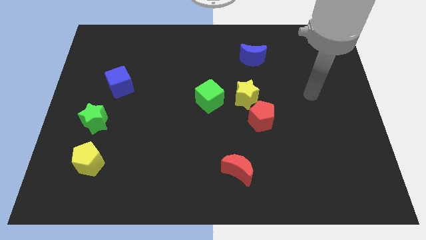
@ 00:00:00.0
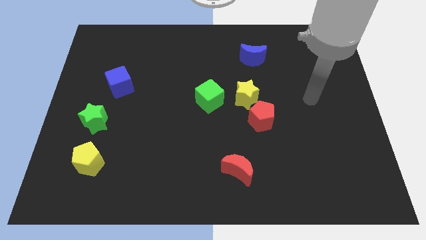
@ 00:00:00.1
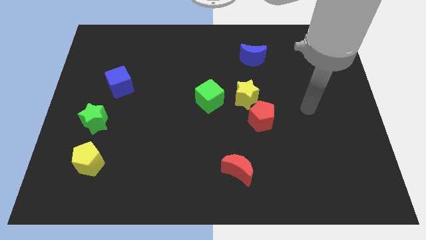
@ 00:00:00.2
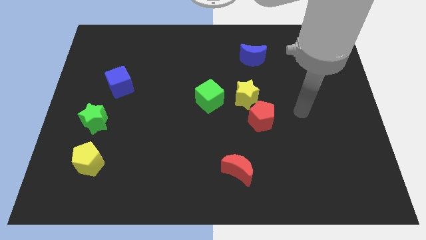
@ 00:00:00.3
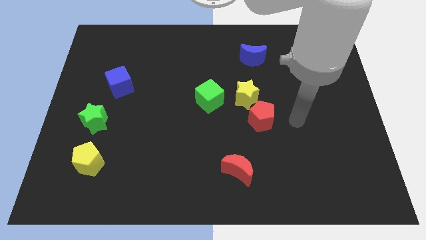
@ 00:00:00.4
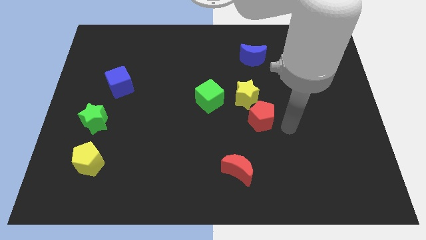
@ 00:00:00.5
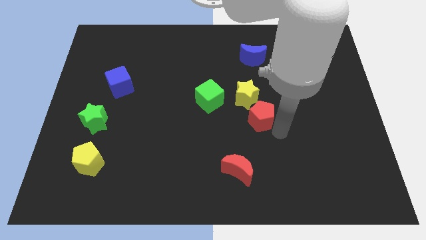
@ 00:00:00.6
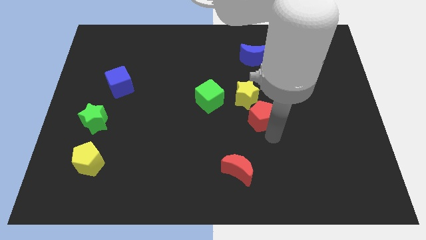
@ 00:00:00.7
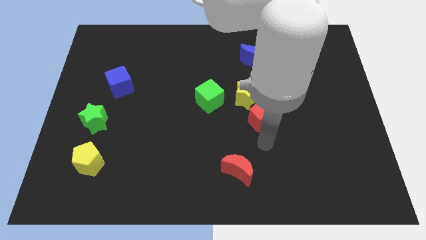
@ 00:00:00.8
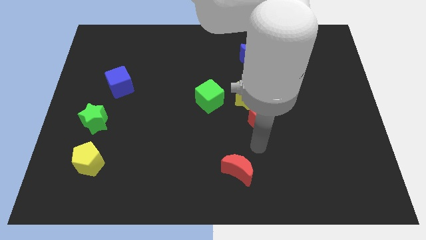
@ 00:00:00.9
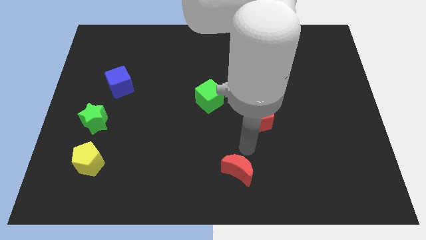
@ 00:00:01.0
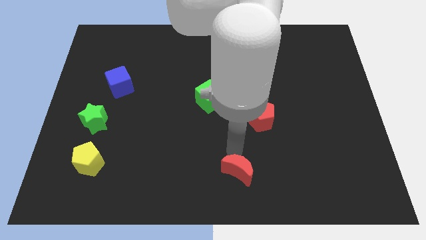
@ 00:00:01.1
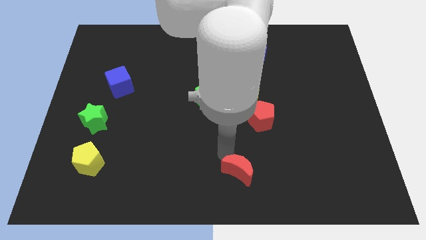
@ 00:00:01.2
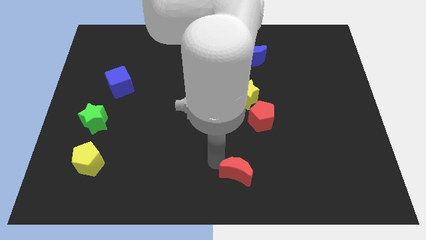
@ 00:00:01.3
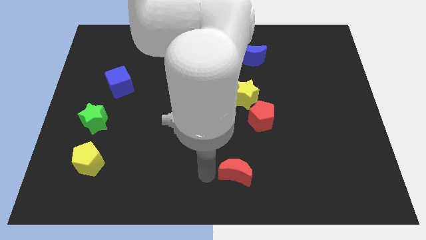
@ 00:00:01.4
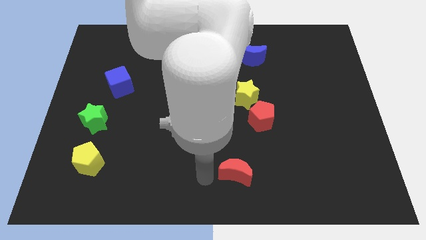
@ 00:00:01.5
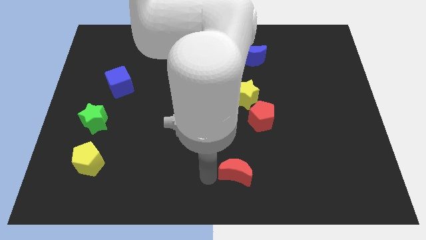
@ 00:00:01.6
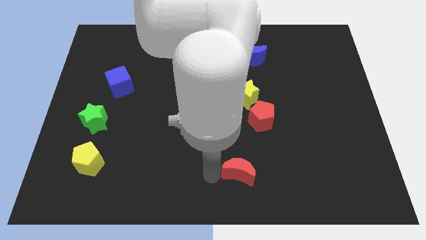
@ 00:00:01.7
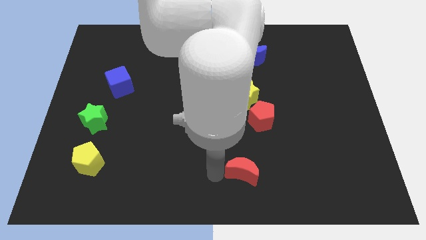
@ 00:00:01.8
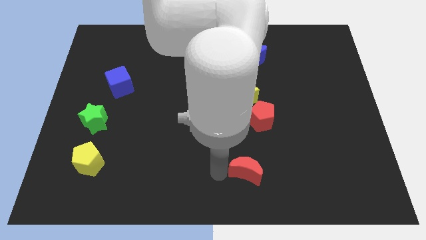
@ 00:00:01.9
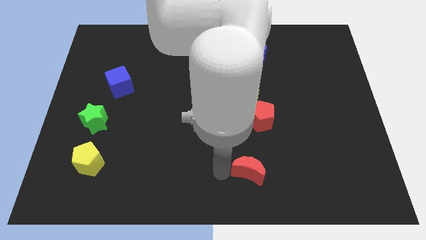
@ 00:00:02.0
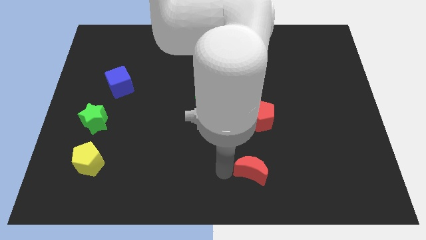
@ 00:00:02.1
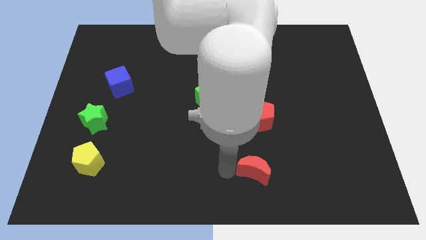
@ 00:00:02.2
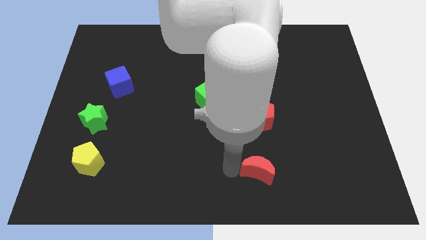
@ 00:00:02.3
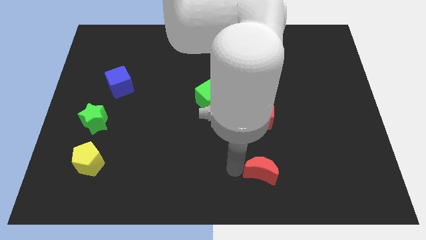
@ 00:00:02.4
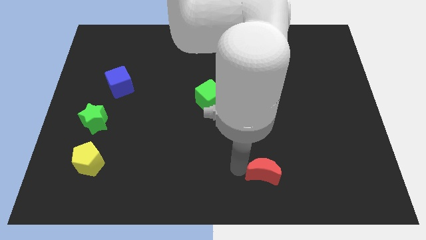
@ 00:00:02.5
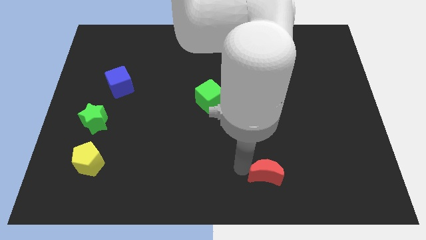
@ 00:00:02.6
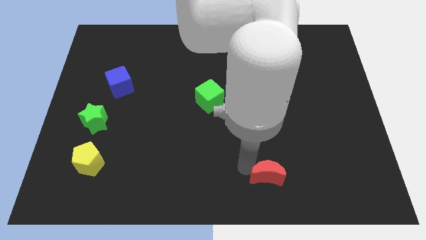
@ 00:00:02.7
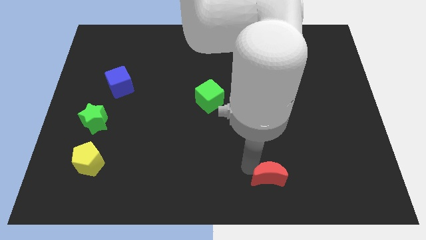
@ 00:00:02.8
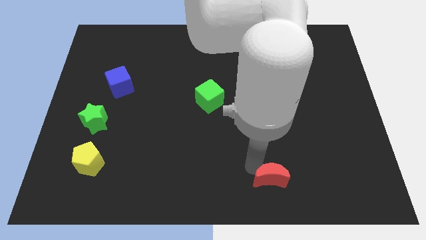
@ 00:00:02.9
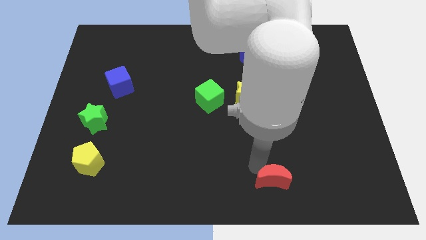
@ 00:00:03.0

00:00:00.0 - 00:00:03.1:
push the red moon a bit right

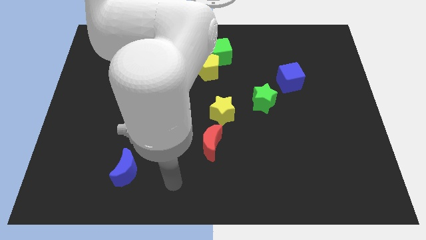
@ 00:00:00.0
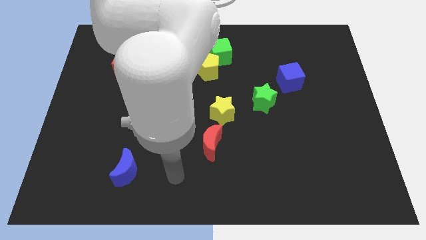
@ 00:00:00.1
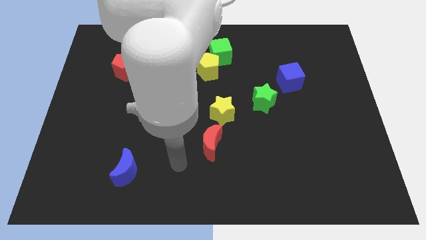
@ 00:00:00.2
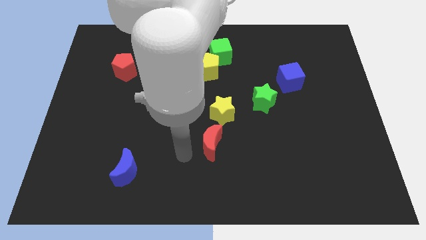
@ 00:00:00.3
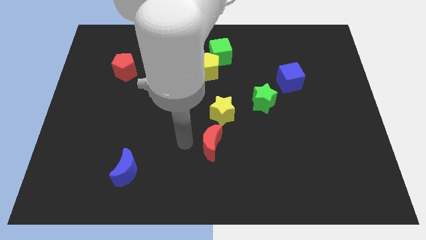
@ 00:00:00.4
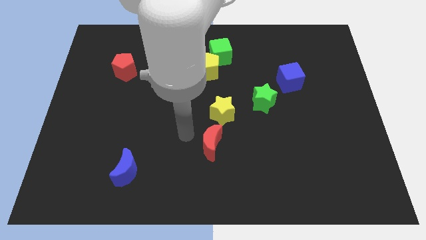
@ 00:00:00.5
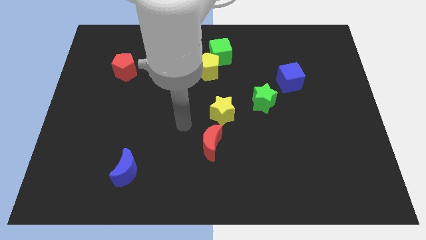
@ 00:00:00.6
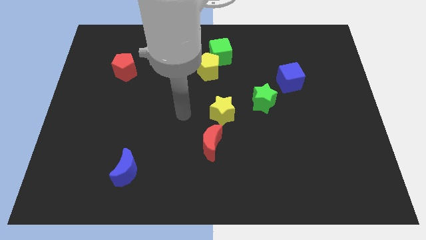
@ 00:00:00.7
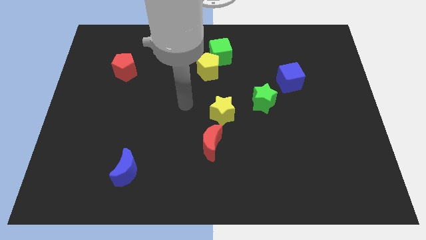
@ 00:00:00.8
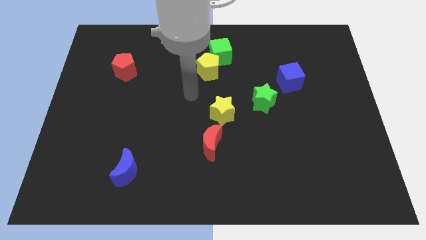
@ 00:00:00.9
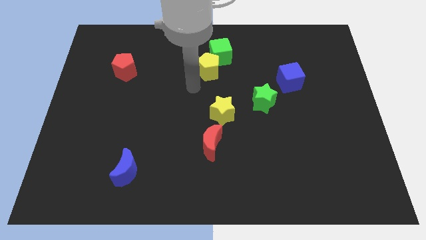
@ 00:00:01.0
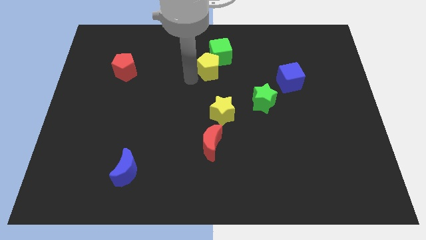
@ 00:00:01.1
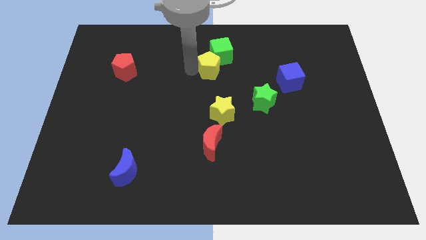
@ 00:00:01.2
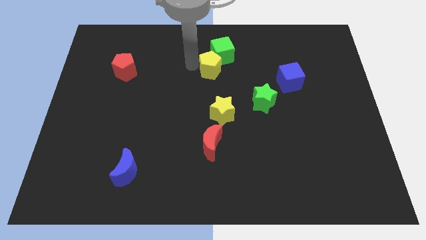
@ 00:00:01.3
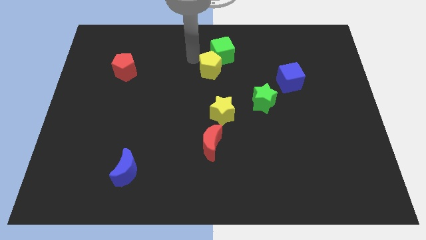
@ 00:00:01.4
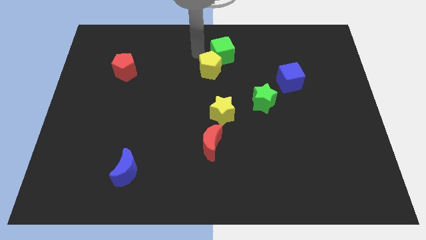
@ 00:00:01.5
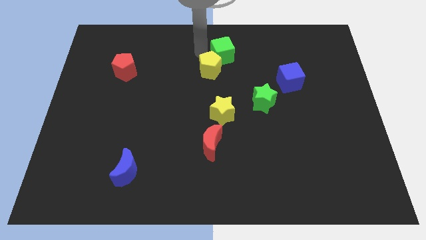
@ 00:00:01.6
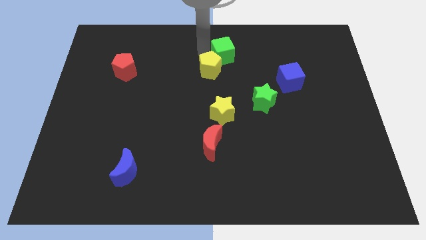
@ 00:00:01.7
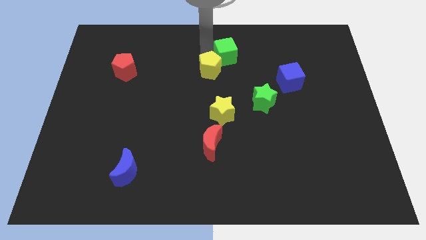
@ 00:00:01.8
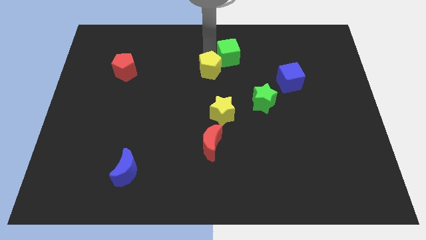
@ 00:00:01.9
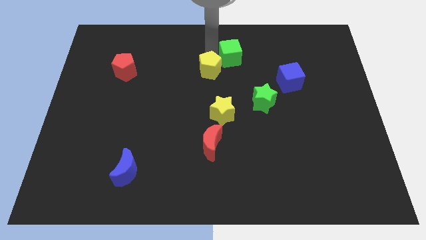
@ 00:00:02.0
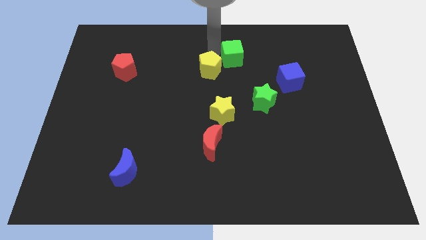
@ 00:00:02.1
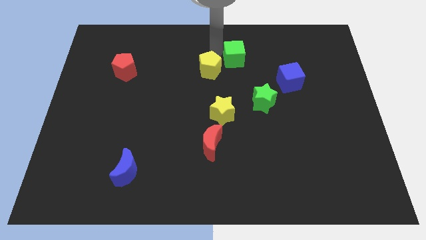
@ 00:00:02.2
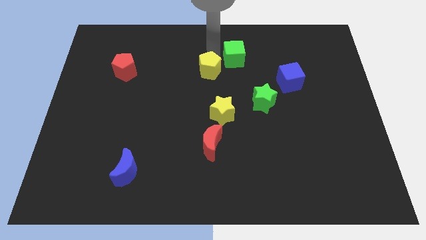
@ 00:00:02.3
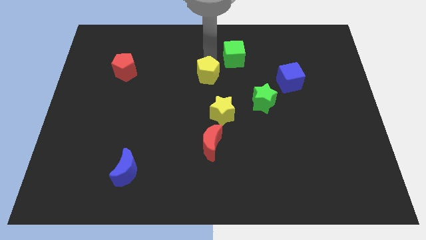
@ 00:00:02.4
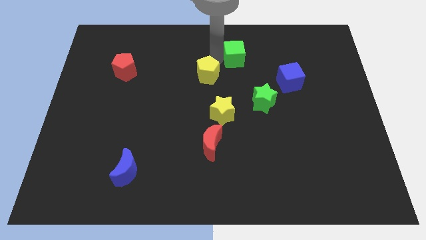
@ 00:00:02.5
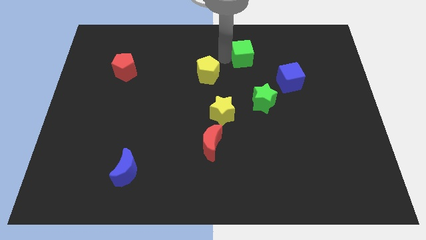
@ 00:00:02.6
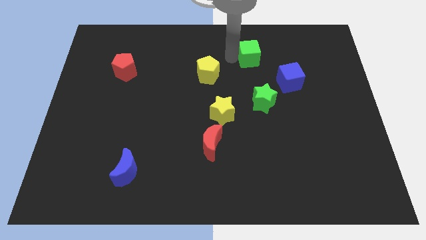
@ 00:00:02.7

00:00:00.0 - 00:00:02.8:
push the green cube to the right a little

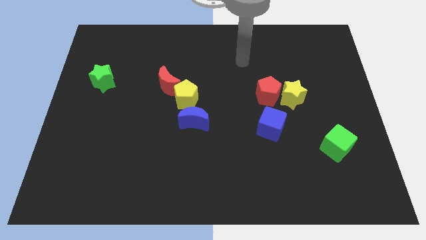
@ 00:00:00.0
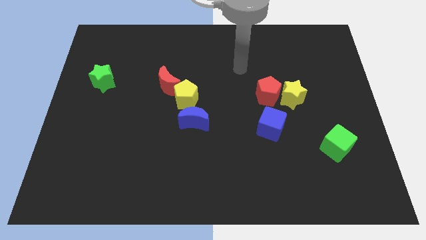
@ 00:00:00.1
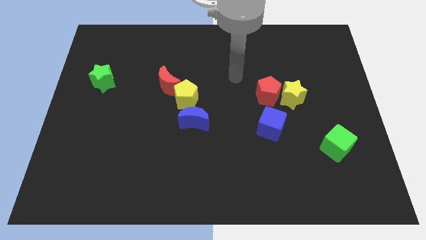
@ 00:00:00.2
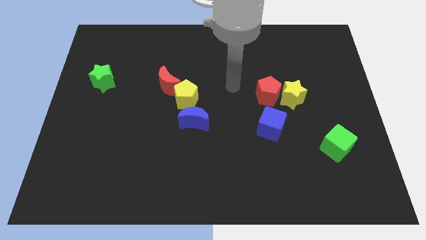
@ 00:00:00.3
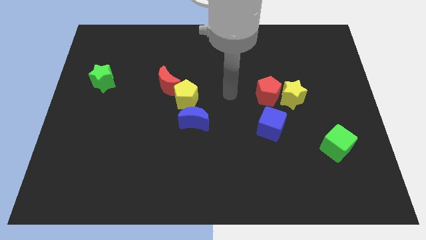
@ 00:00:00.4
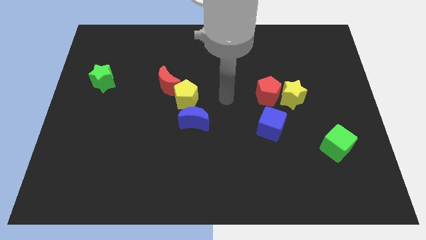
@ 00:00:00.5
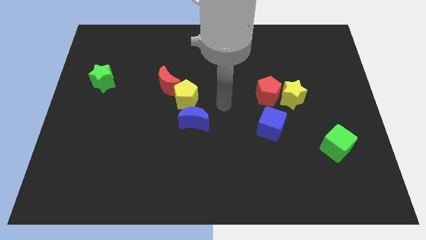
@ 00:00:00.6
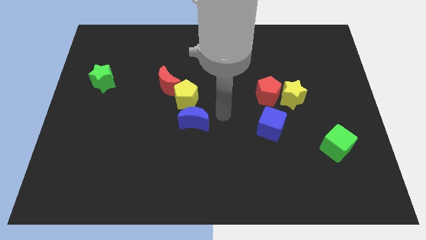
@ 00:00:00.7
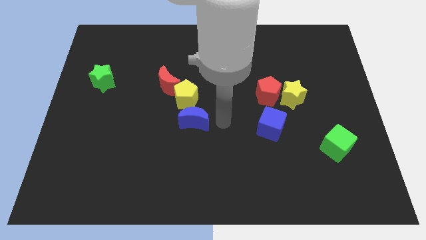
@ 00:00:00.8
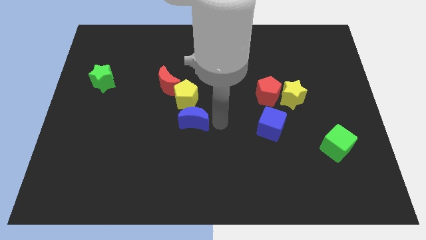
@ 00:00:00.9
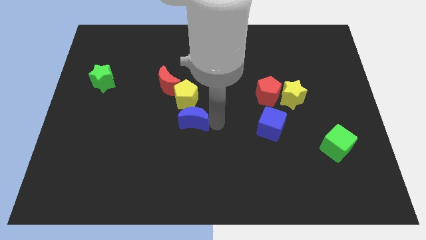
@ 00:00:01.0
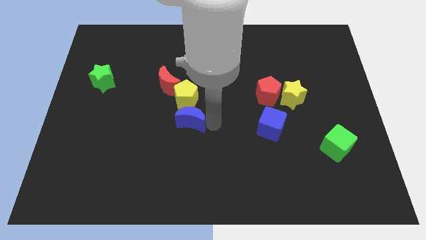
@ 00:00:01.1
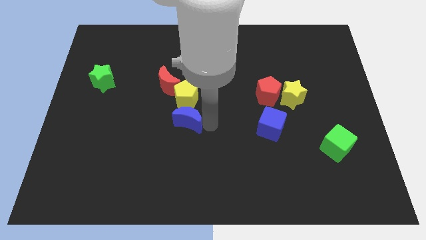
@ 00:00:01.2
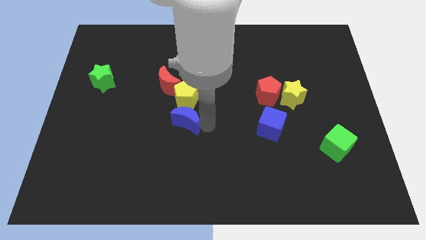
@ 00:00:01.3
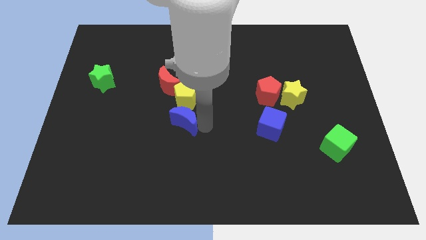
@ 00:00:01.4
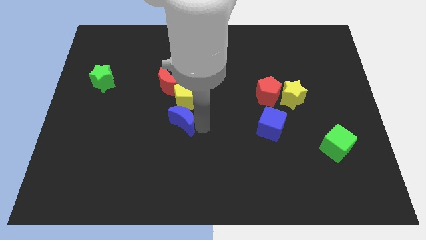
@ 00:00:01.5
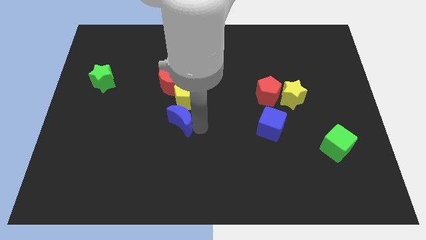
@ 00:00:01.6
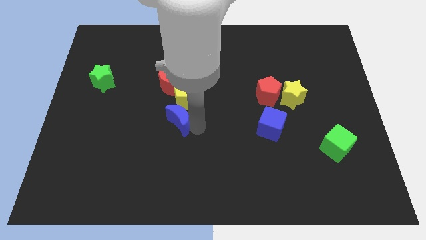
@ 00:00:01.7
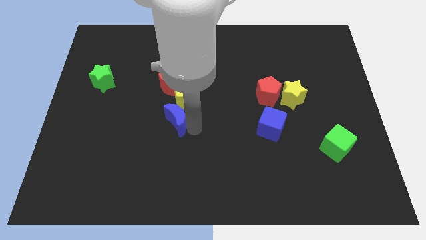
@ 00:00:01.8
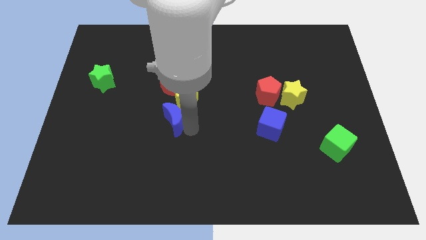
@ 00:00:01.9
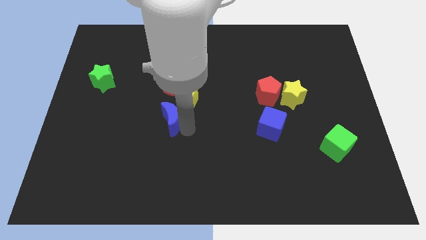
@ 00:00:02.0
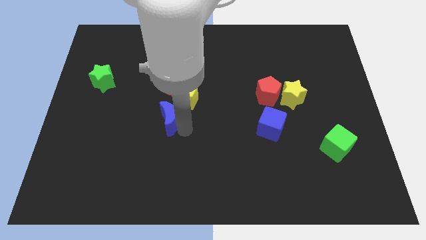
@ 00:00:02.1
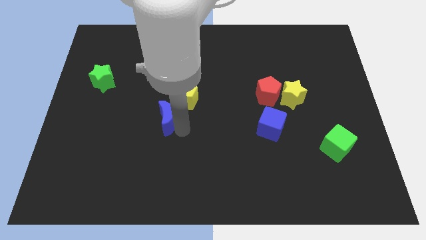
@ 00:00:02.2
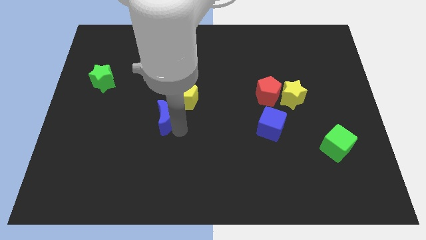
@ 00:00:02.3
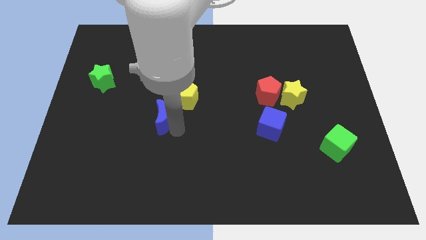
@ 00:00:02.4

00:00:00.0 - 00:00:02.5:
slide the blue moon a bit left

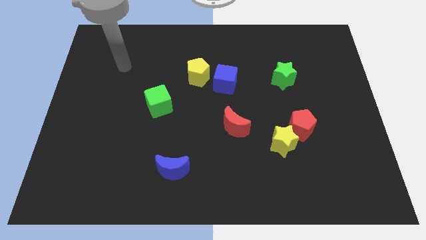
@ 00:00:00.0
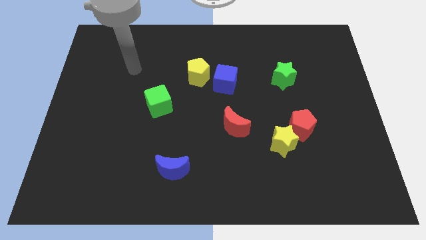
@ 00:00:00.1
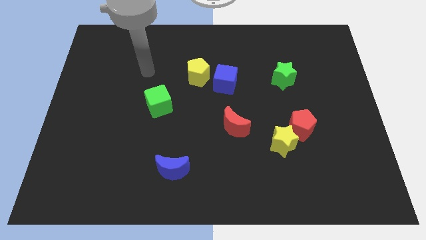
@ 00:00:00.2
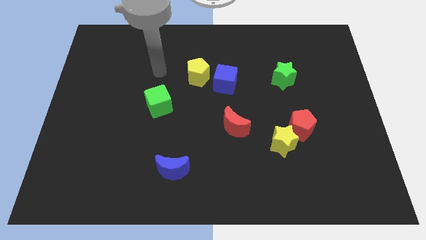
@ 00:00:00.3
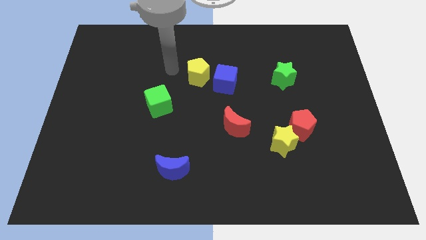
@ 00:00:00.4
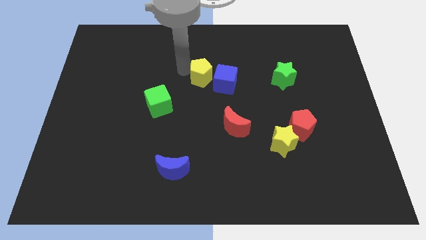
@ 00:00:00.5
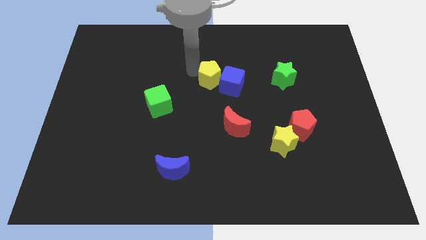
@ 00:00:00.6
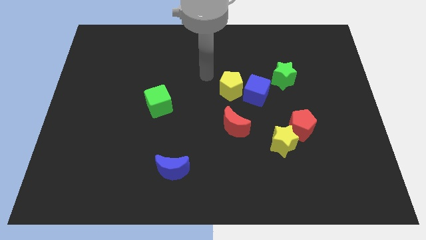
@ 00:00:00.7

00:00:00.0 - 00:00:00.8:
slide the blue cube a little to the right
